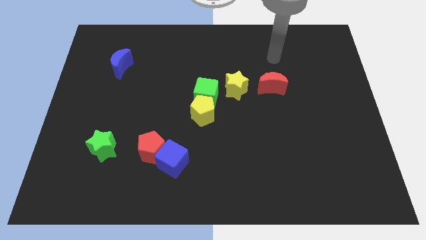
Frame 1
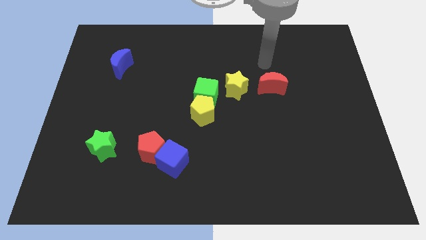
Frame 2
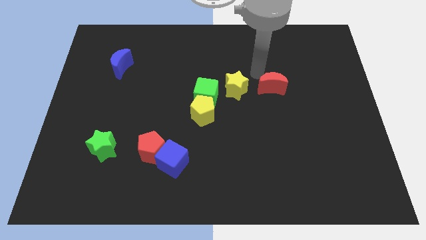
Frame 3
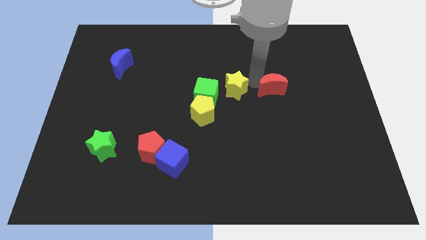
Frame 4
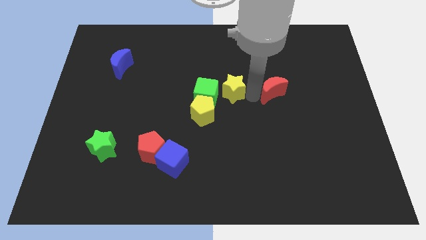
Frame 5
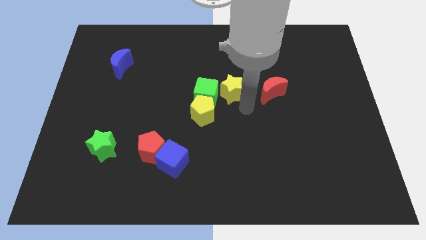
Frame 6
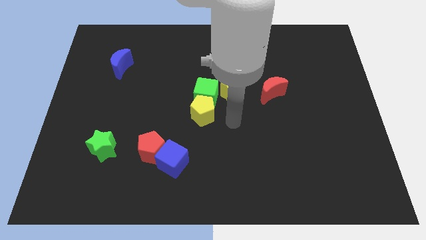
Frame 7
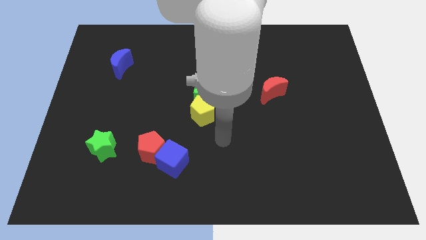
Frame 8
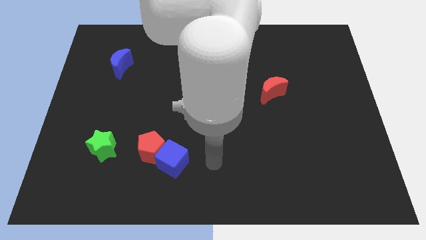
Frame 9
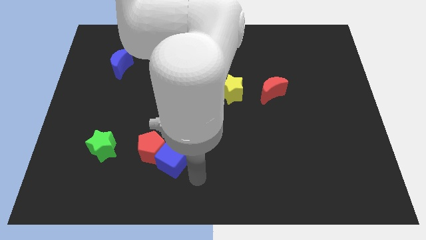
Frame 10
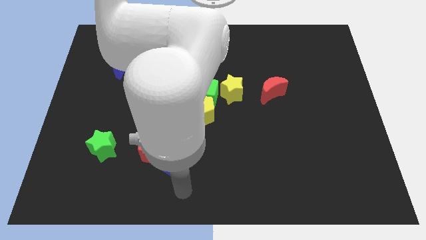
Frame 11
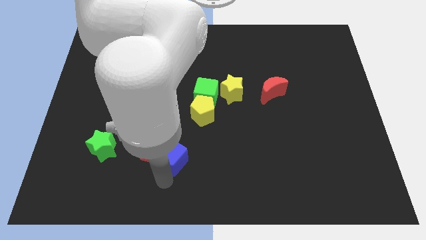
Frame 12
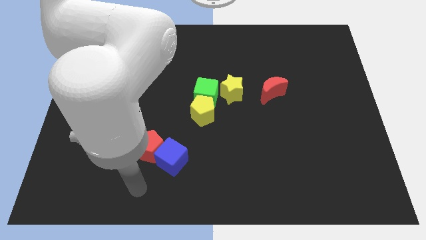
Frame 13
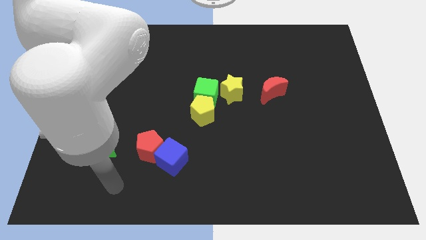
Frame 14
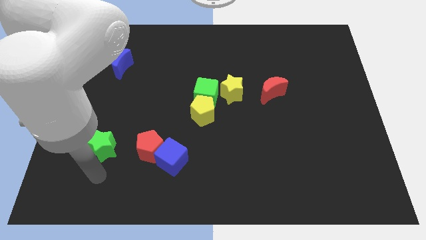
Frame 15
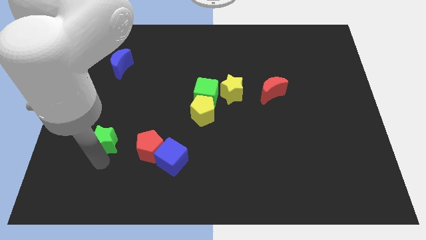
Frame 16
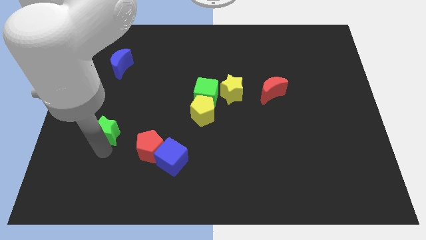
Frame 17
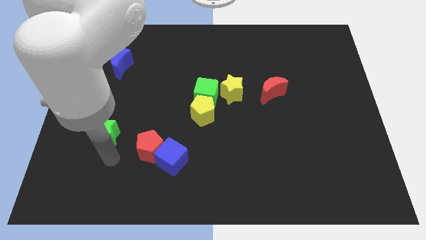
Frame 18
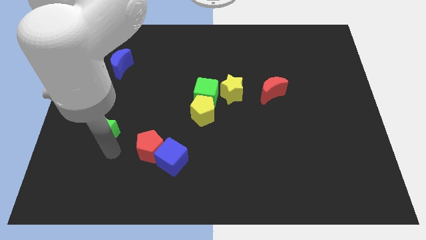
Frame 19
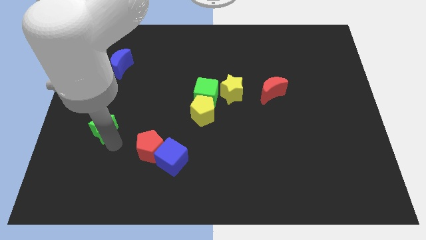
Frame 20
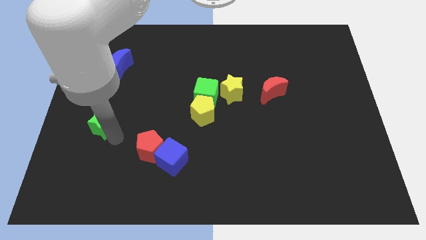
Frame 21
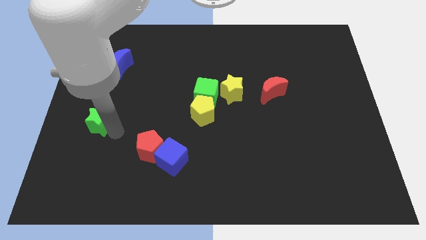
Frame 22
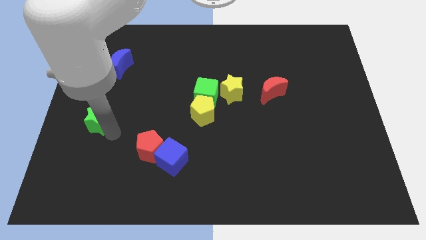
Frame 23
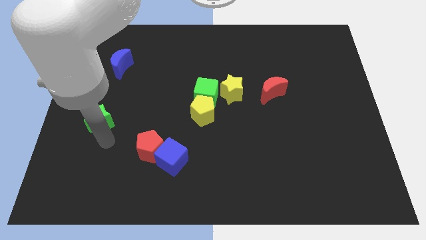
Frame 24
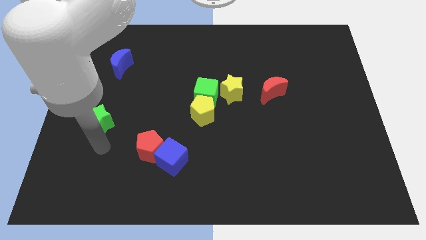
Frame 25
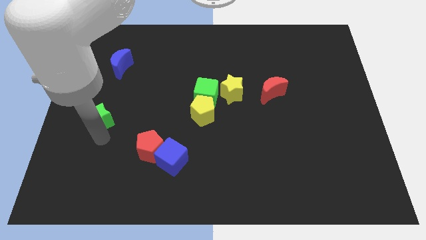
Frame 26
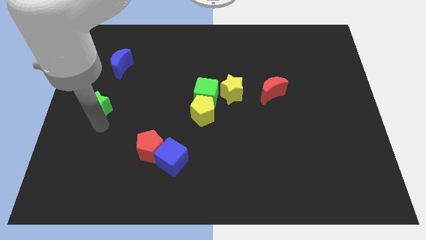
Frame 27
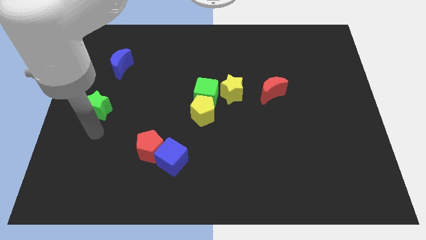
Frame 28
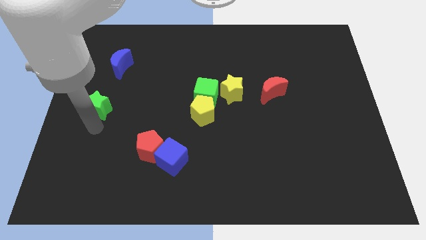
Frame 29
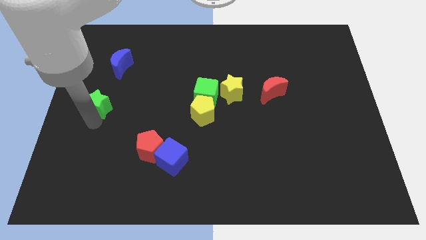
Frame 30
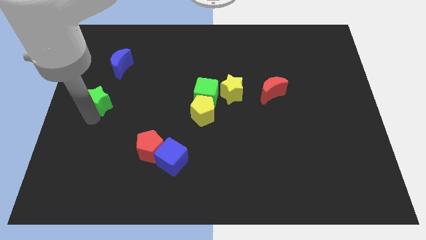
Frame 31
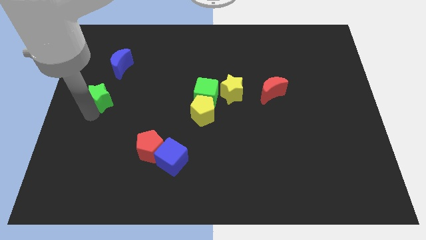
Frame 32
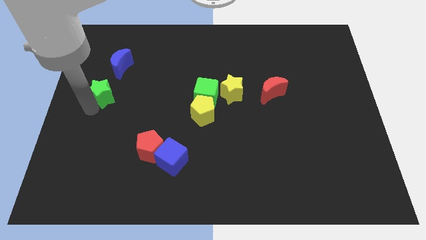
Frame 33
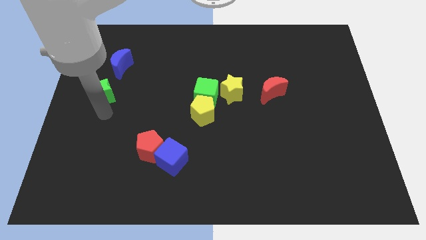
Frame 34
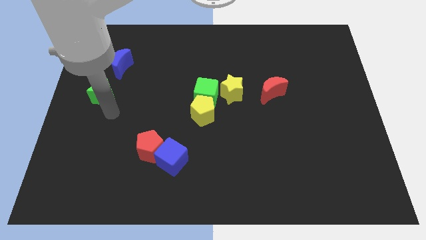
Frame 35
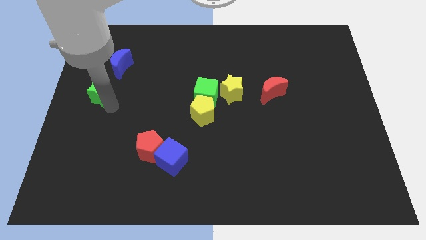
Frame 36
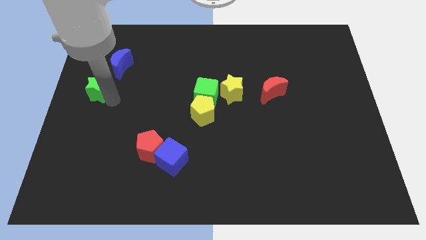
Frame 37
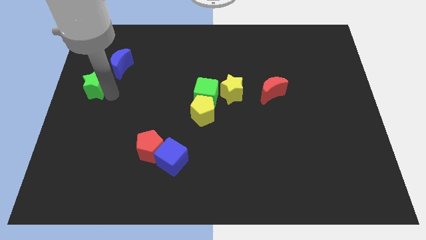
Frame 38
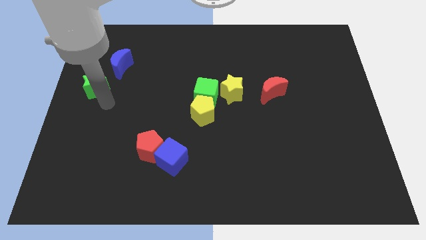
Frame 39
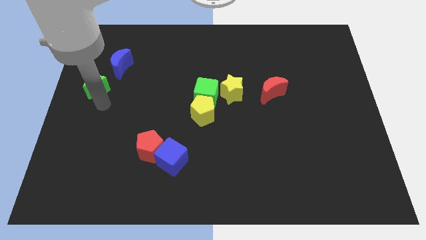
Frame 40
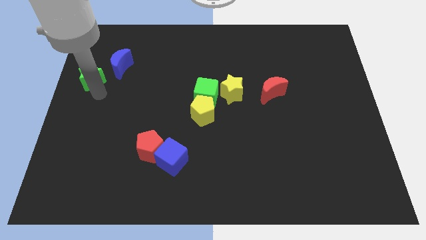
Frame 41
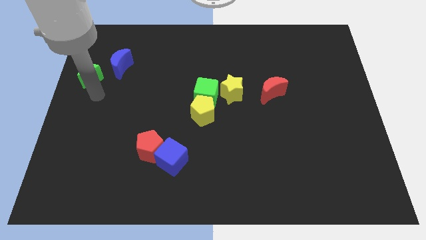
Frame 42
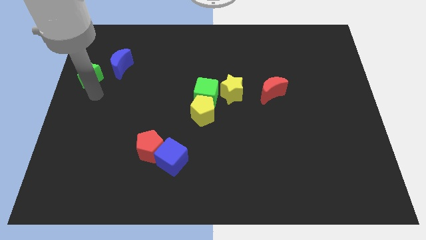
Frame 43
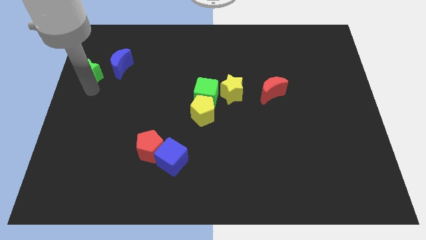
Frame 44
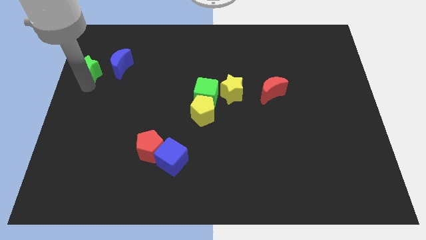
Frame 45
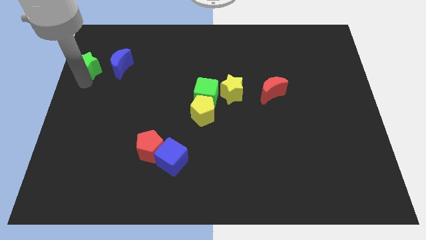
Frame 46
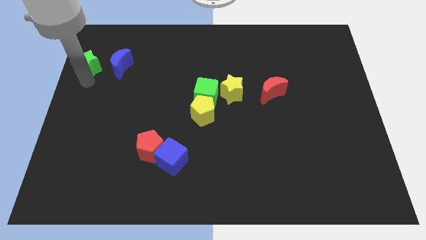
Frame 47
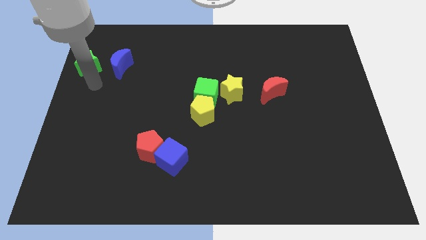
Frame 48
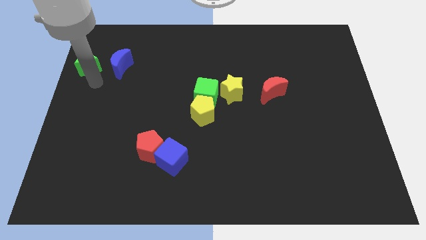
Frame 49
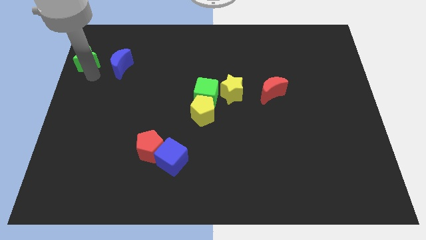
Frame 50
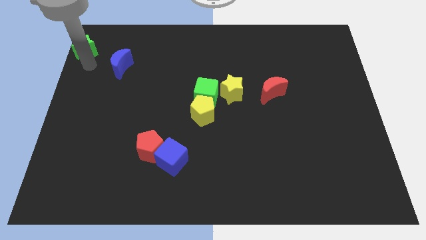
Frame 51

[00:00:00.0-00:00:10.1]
push the green star to the top left of the board
